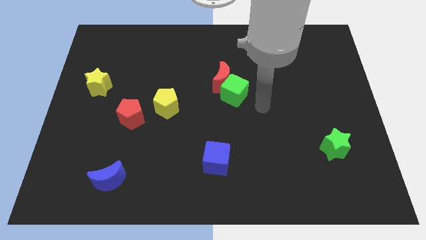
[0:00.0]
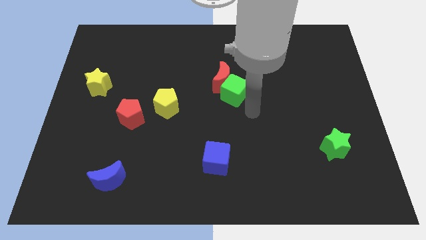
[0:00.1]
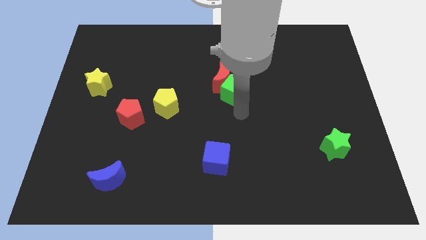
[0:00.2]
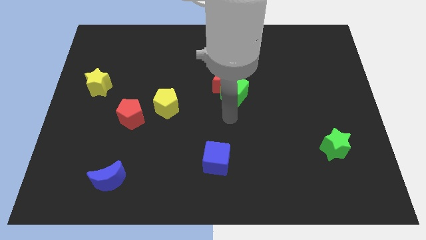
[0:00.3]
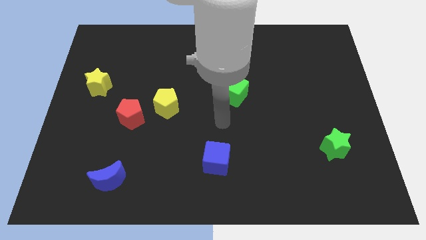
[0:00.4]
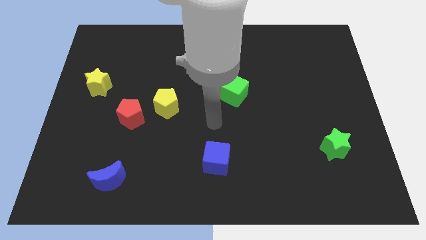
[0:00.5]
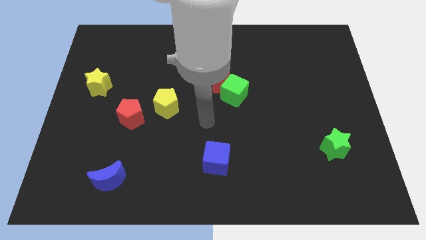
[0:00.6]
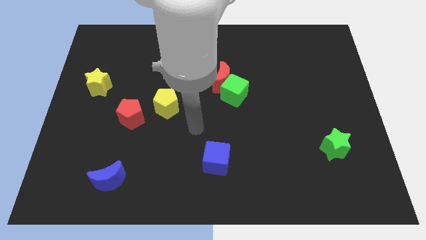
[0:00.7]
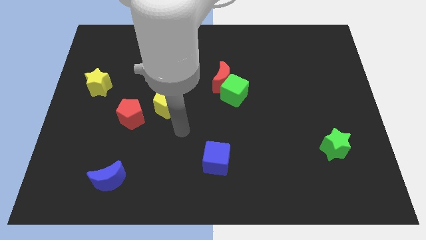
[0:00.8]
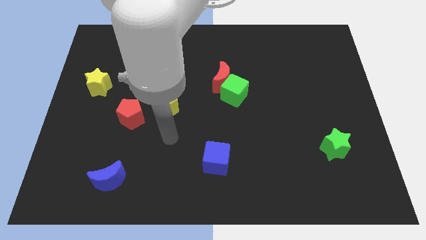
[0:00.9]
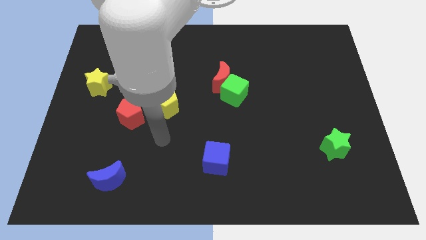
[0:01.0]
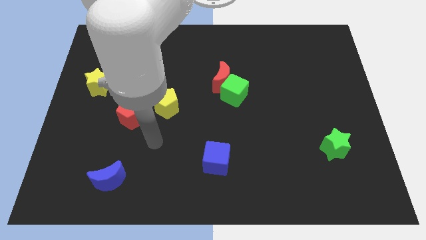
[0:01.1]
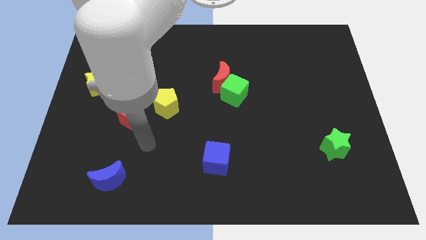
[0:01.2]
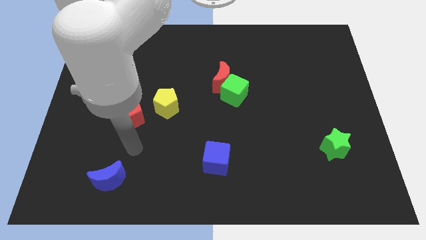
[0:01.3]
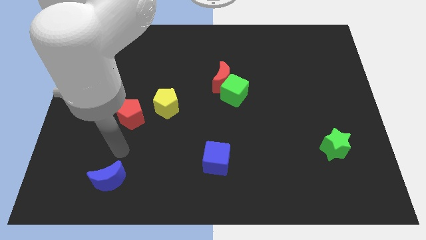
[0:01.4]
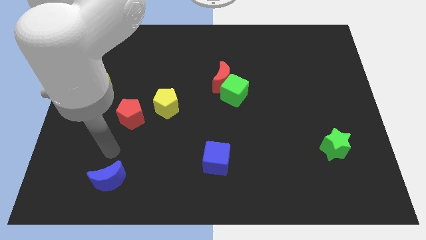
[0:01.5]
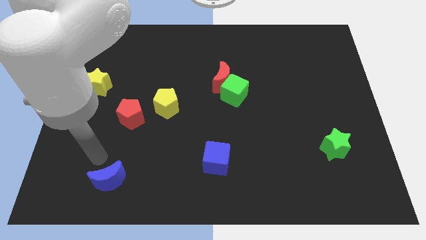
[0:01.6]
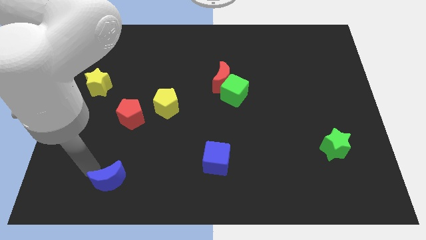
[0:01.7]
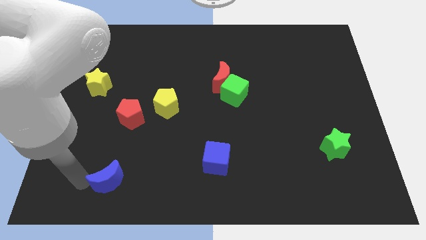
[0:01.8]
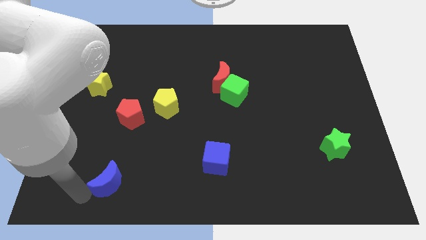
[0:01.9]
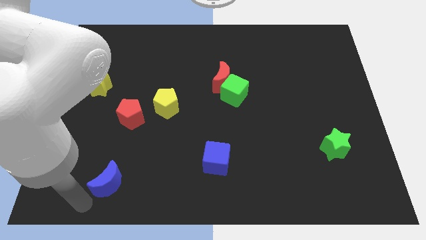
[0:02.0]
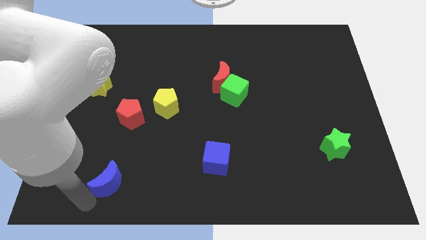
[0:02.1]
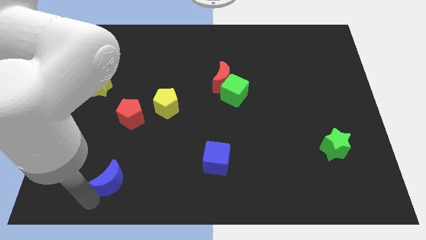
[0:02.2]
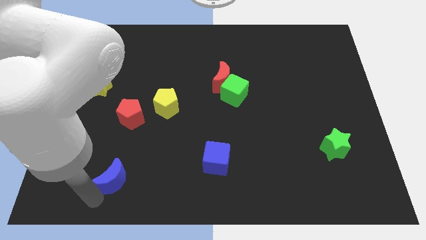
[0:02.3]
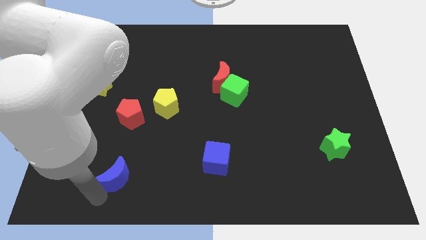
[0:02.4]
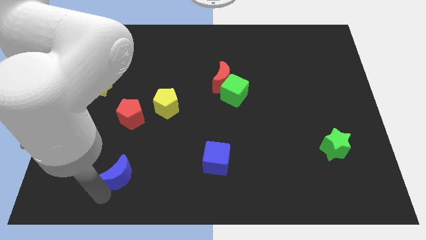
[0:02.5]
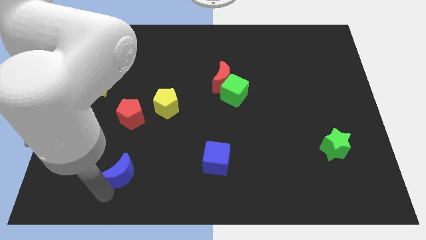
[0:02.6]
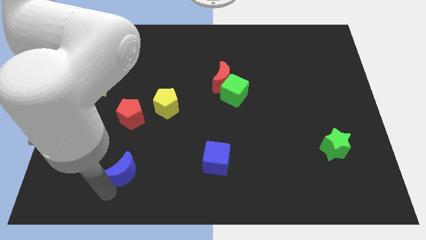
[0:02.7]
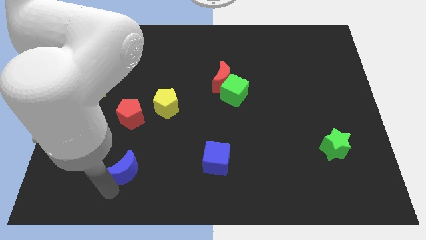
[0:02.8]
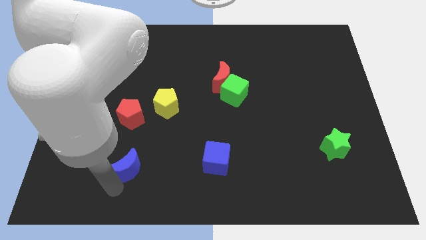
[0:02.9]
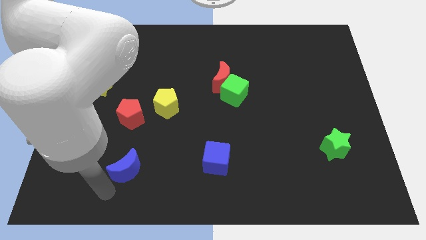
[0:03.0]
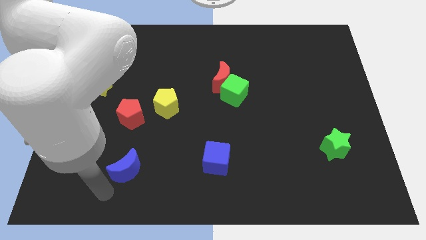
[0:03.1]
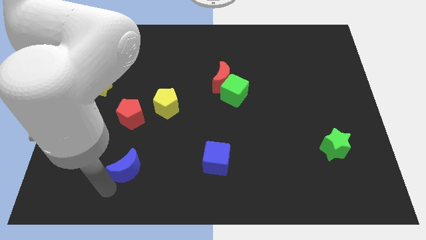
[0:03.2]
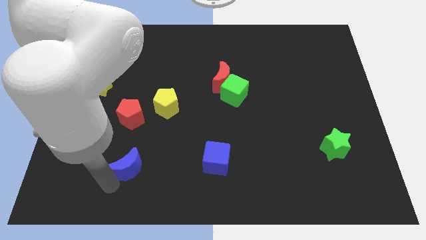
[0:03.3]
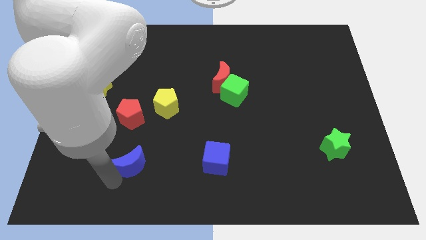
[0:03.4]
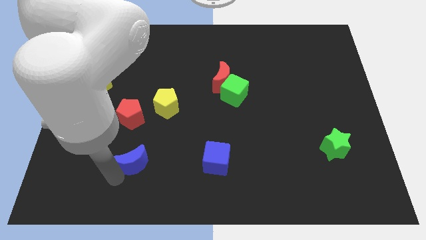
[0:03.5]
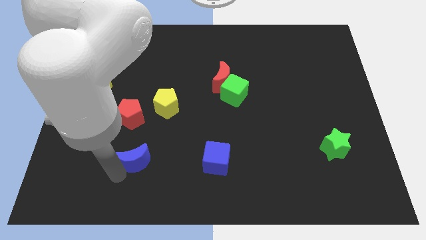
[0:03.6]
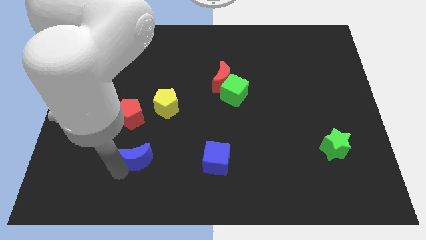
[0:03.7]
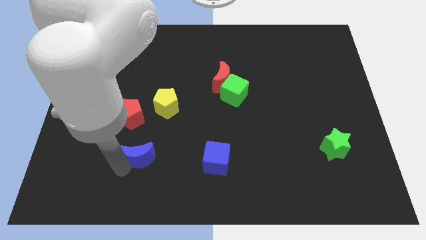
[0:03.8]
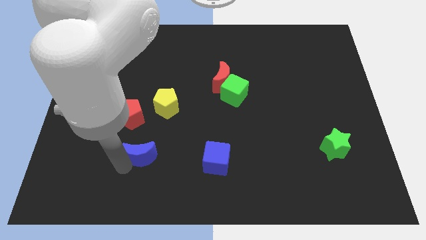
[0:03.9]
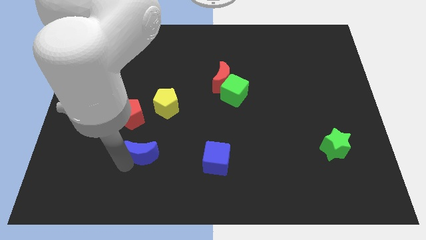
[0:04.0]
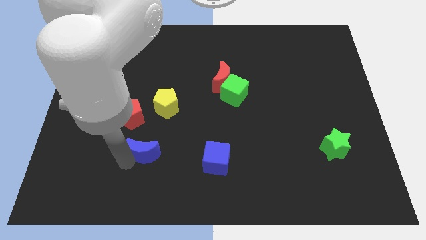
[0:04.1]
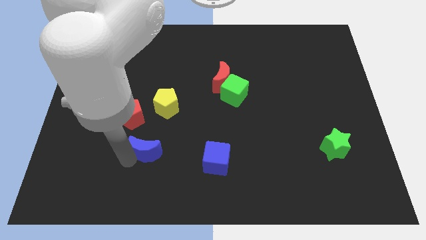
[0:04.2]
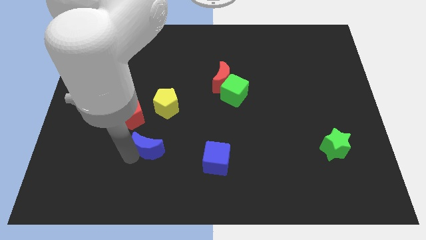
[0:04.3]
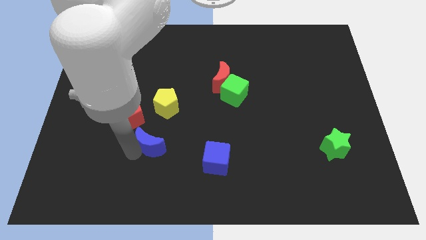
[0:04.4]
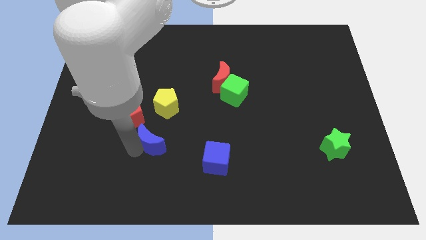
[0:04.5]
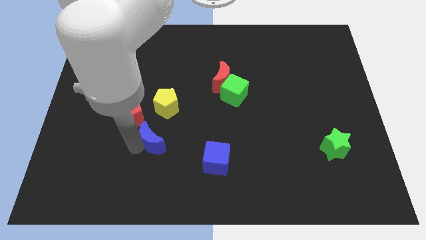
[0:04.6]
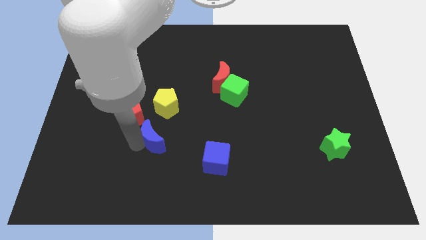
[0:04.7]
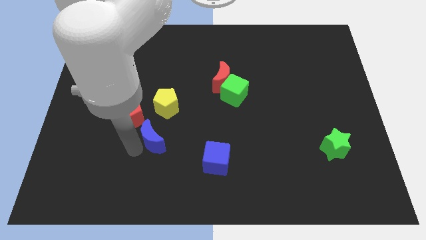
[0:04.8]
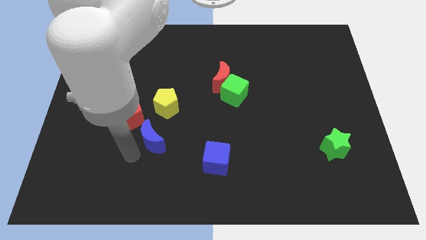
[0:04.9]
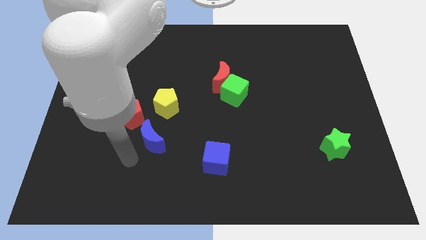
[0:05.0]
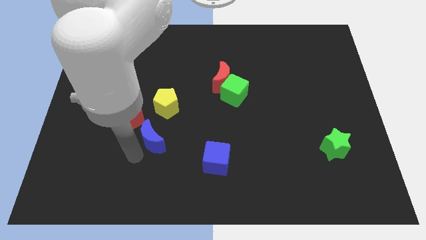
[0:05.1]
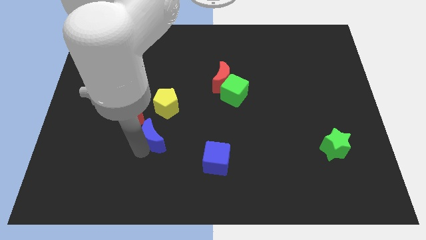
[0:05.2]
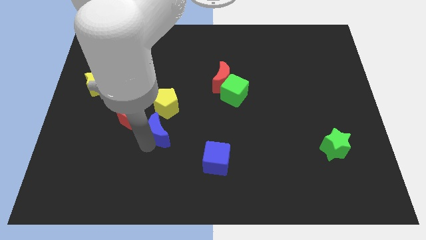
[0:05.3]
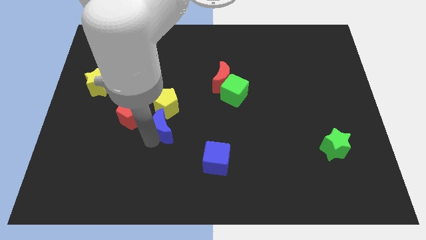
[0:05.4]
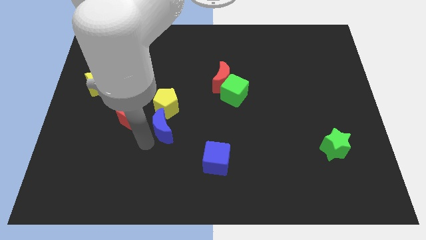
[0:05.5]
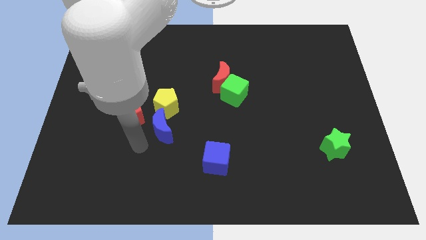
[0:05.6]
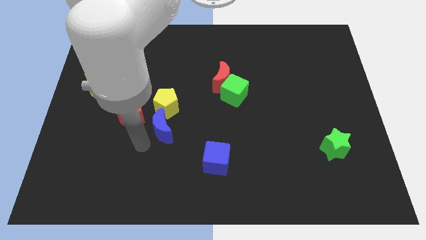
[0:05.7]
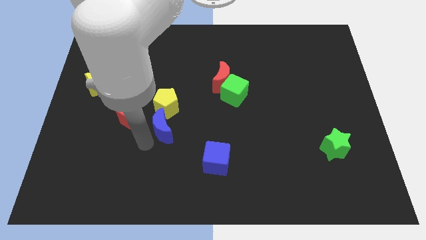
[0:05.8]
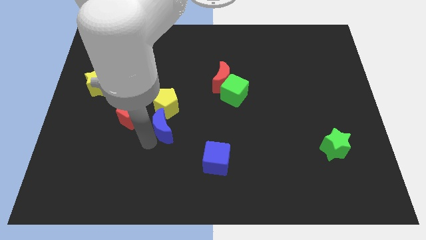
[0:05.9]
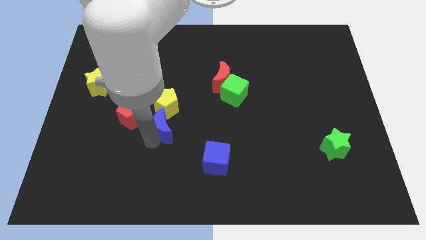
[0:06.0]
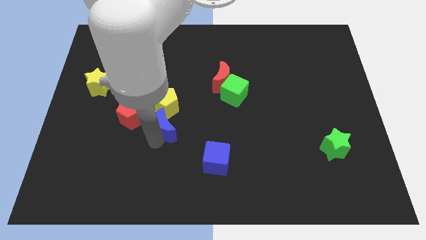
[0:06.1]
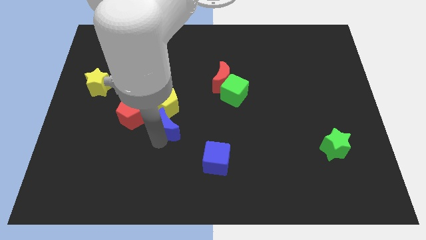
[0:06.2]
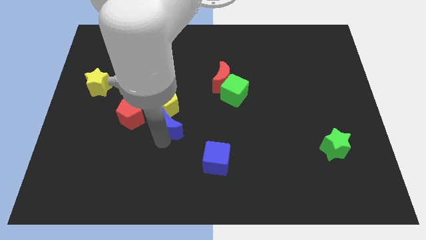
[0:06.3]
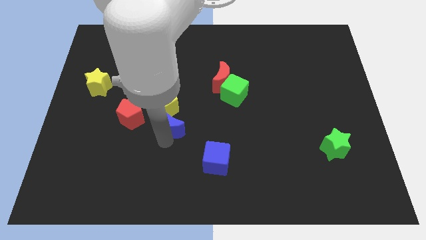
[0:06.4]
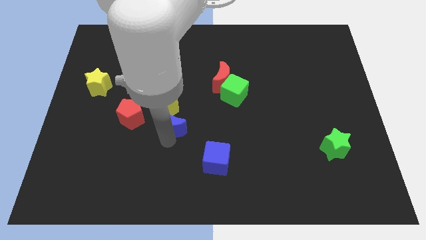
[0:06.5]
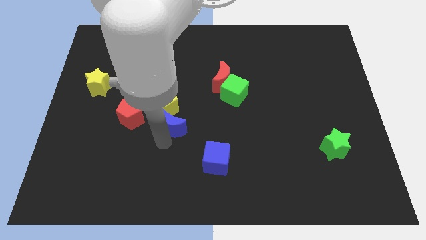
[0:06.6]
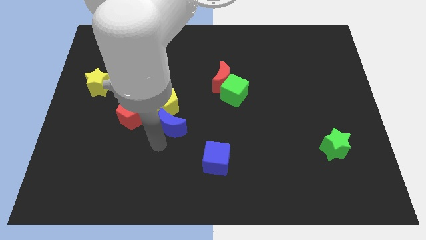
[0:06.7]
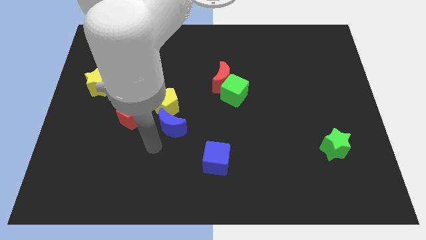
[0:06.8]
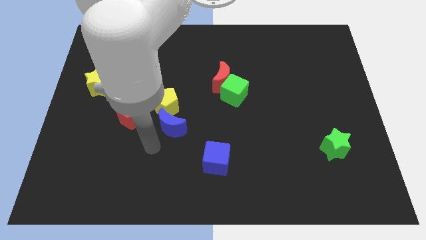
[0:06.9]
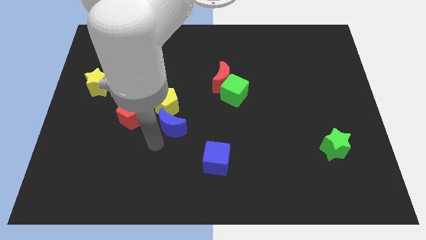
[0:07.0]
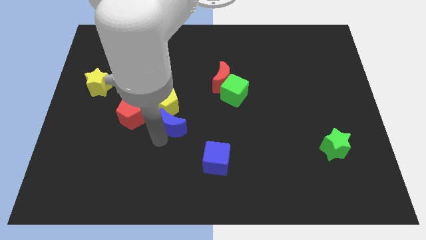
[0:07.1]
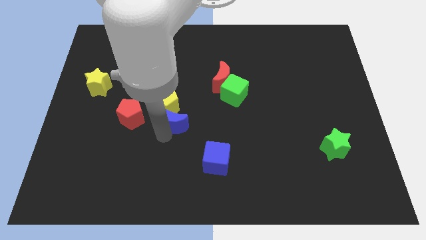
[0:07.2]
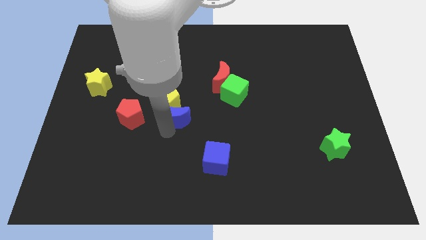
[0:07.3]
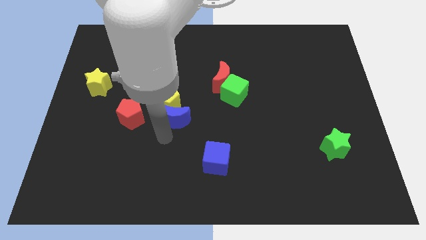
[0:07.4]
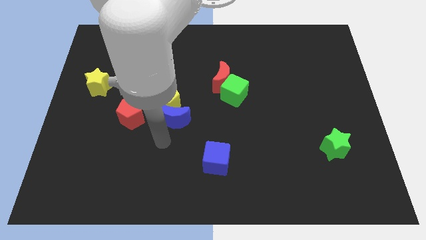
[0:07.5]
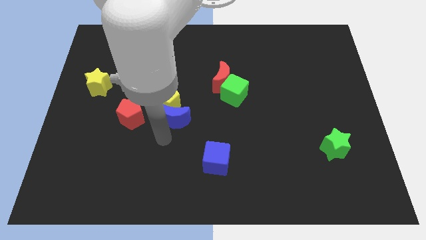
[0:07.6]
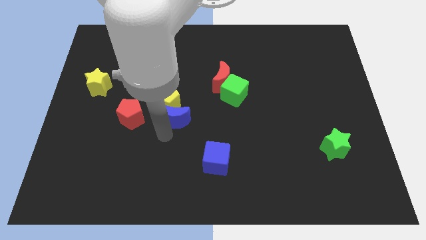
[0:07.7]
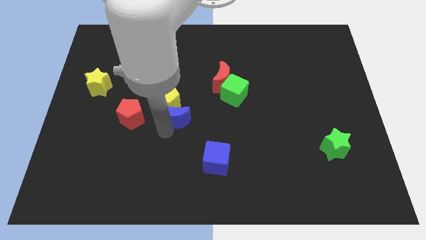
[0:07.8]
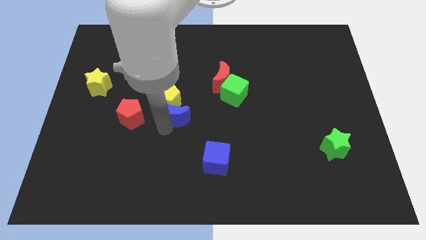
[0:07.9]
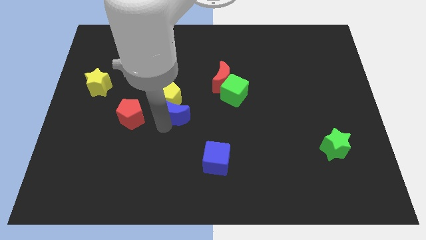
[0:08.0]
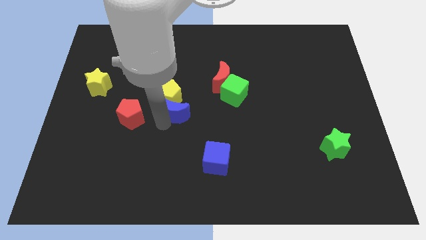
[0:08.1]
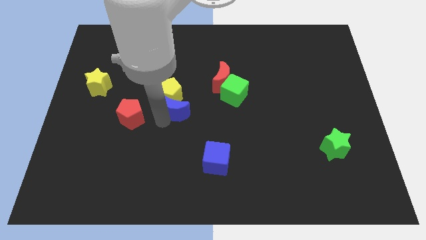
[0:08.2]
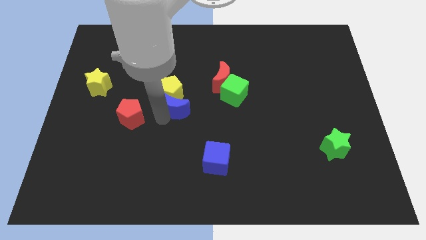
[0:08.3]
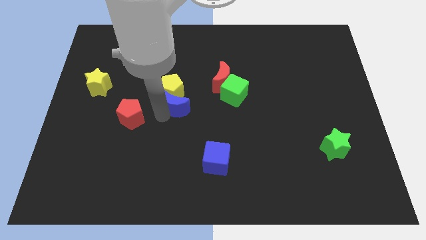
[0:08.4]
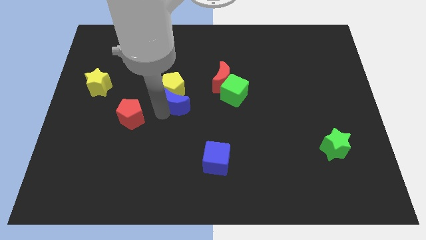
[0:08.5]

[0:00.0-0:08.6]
move the blue moon left of the green cube

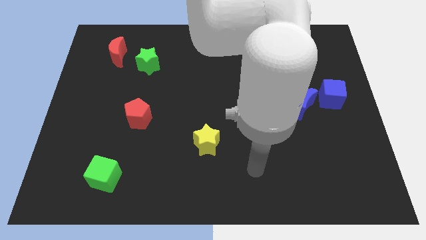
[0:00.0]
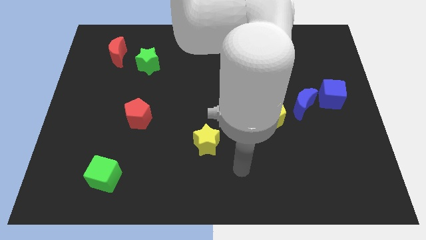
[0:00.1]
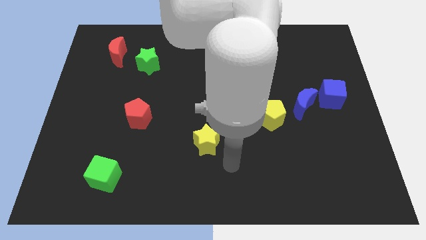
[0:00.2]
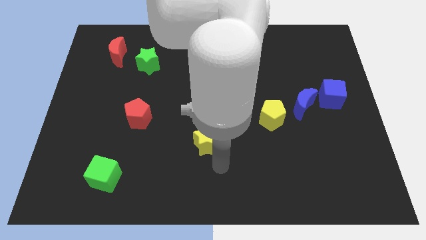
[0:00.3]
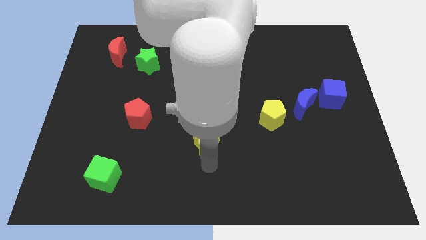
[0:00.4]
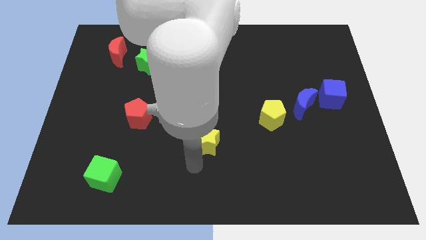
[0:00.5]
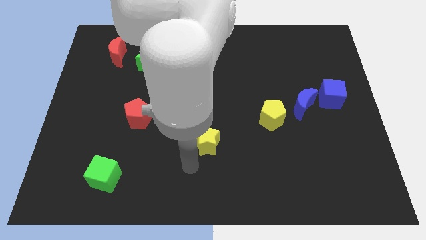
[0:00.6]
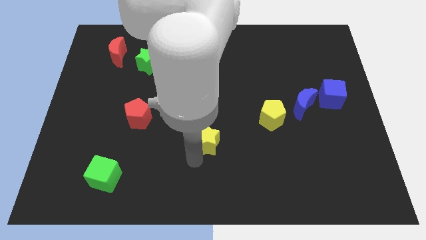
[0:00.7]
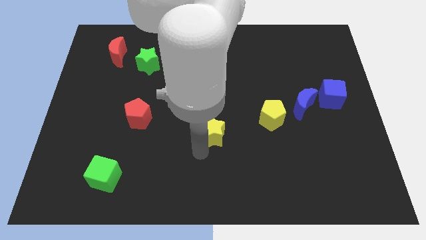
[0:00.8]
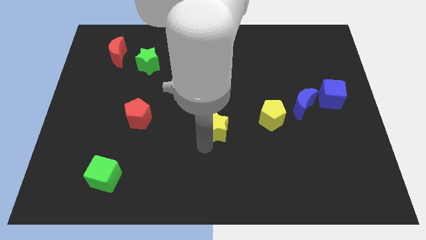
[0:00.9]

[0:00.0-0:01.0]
push the yellow star to the left side of the yellow pentagon
